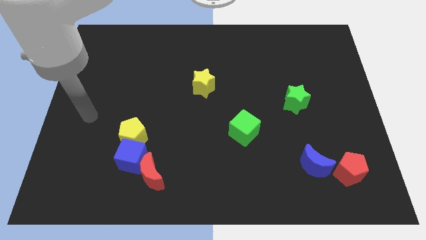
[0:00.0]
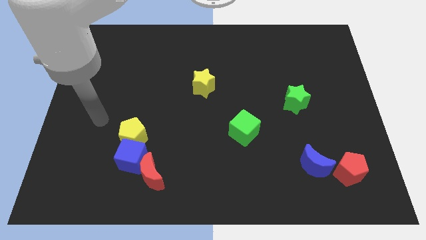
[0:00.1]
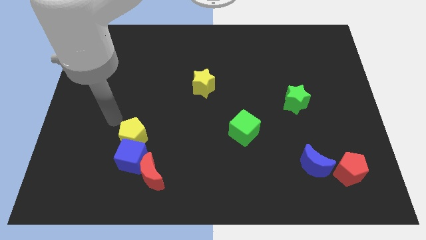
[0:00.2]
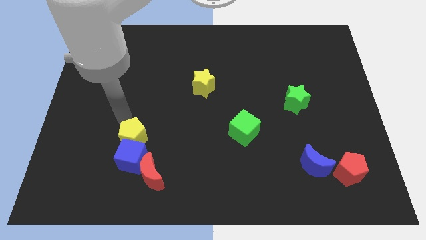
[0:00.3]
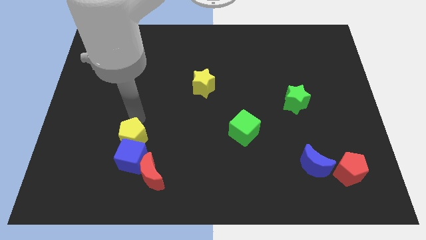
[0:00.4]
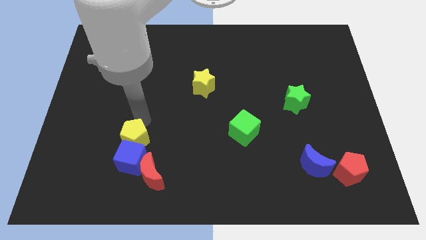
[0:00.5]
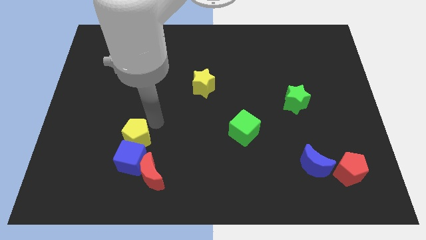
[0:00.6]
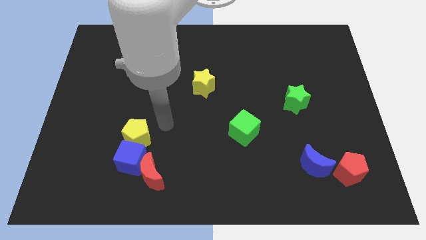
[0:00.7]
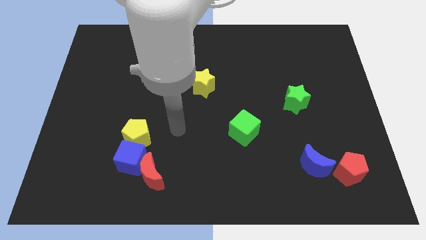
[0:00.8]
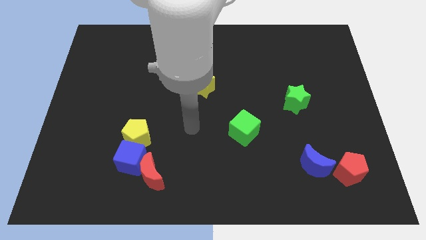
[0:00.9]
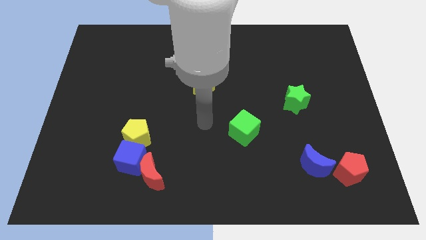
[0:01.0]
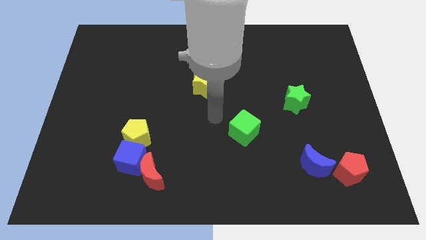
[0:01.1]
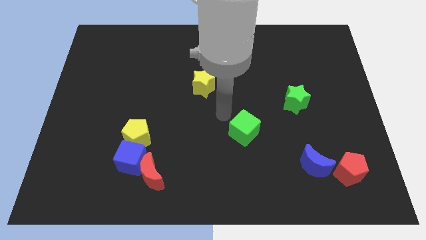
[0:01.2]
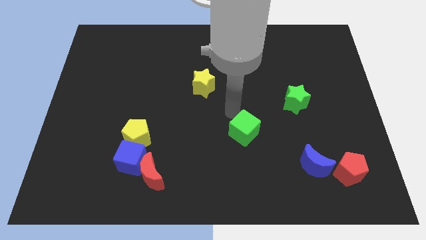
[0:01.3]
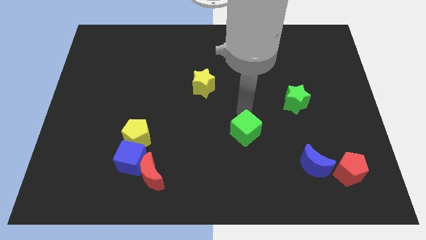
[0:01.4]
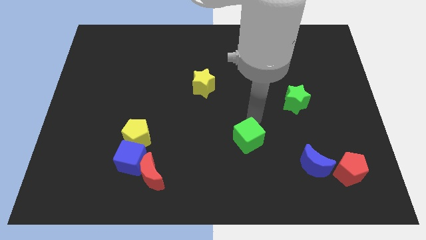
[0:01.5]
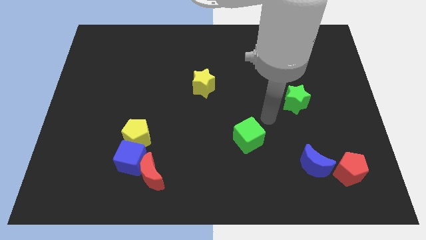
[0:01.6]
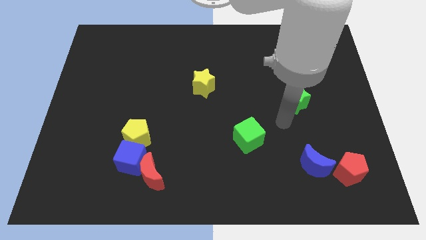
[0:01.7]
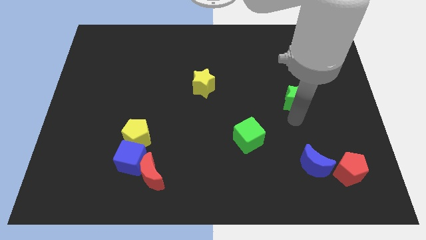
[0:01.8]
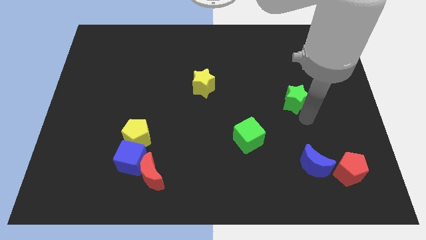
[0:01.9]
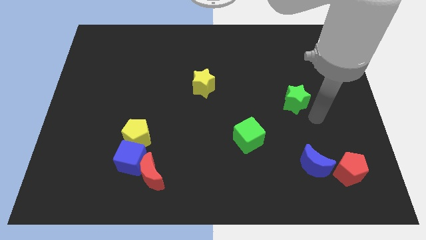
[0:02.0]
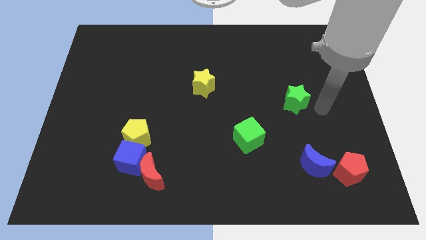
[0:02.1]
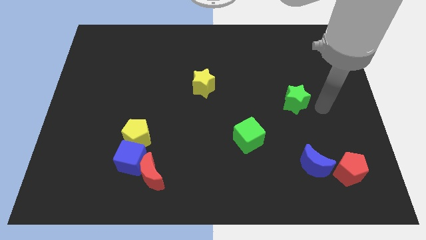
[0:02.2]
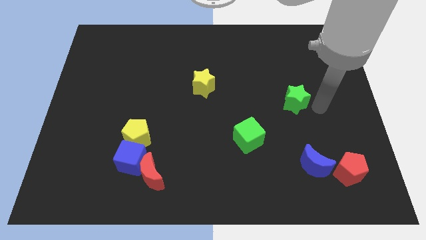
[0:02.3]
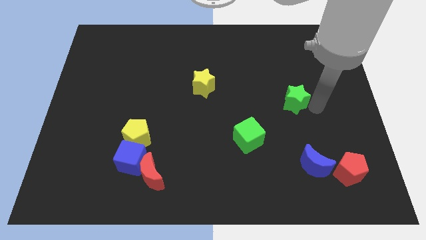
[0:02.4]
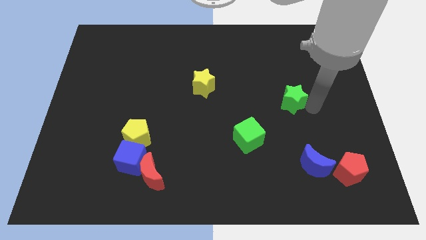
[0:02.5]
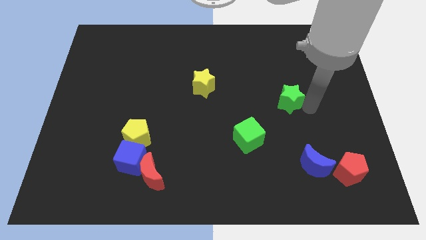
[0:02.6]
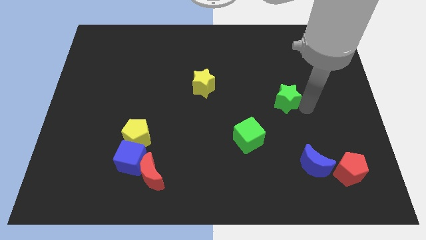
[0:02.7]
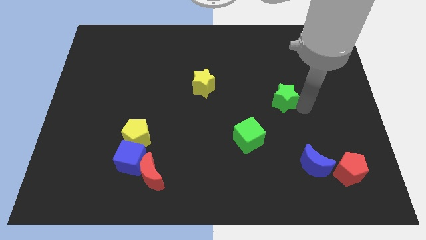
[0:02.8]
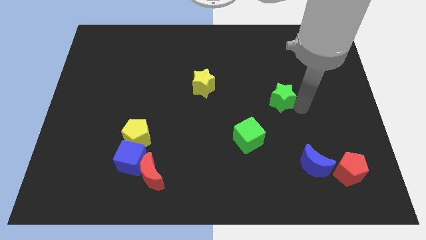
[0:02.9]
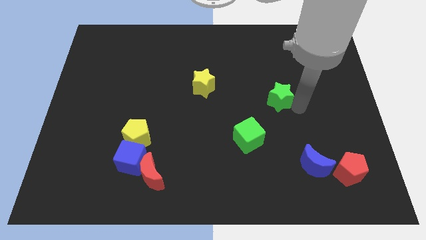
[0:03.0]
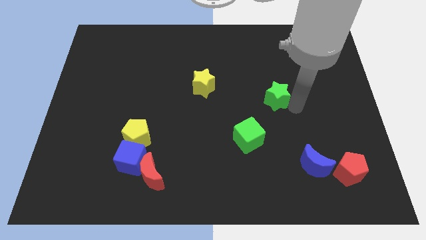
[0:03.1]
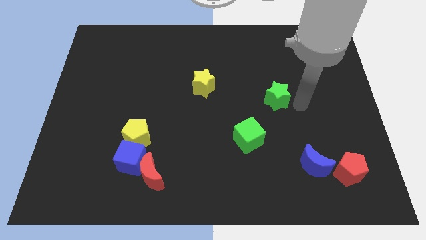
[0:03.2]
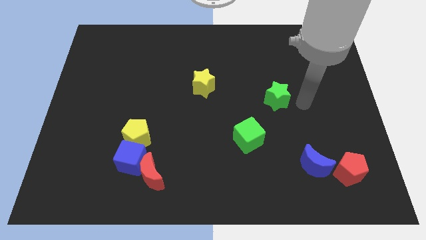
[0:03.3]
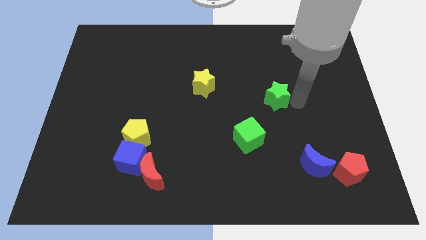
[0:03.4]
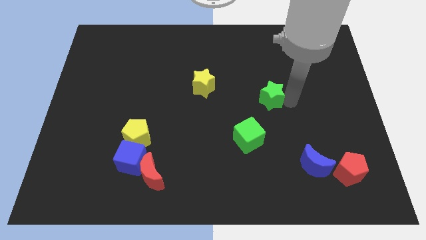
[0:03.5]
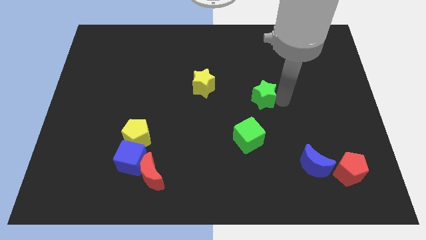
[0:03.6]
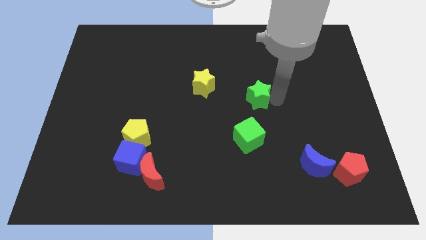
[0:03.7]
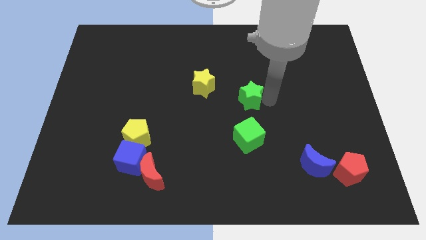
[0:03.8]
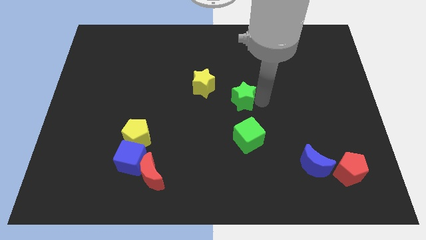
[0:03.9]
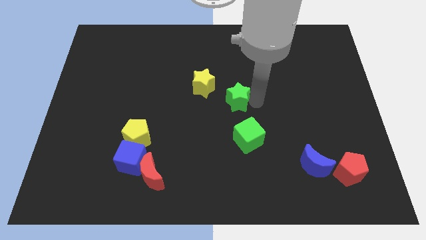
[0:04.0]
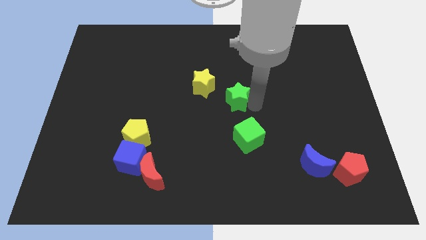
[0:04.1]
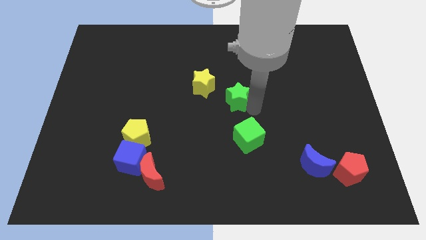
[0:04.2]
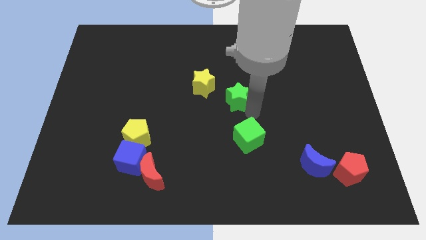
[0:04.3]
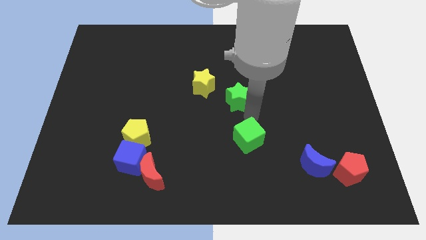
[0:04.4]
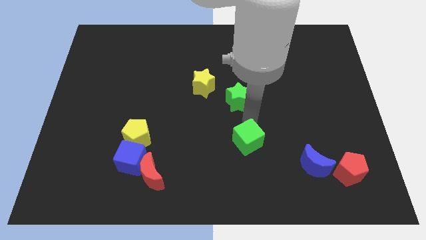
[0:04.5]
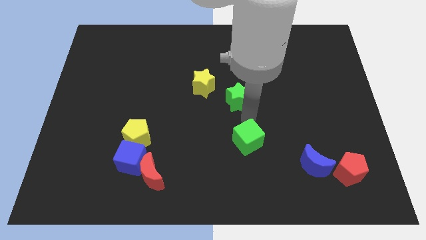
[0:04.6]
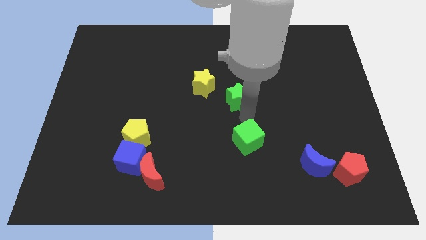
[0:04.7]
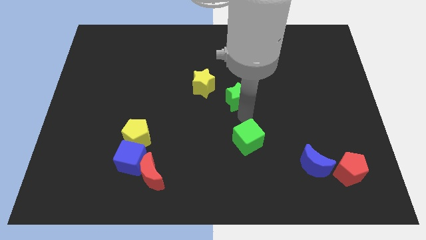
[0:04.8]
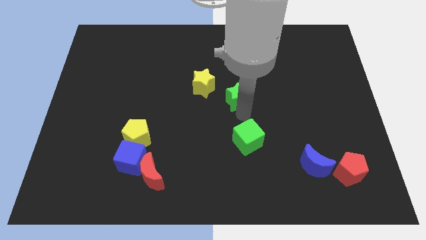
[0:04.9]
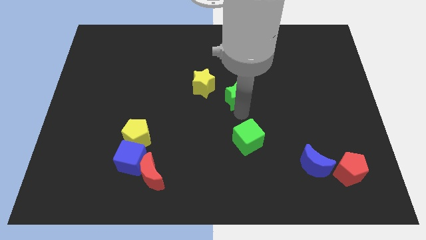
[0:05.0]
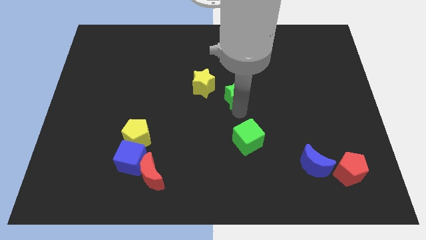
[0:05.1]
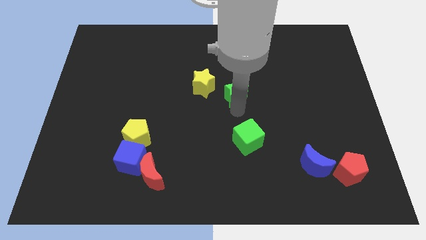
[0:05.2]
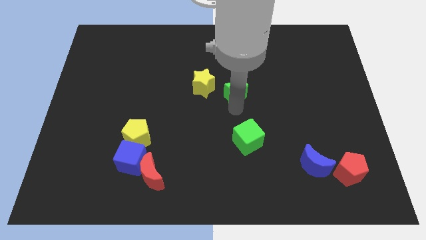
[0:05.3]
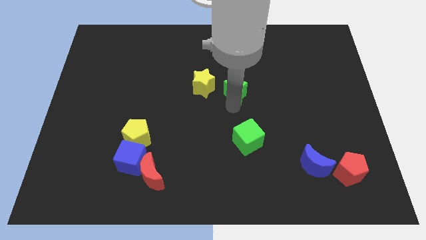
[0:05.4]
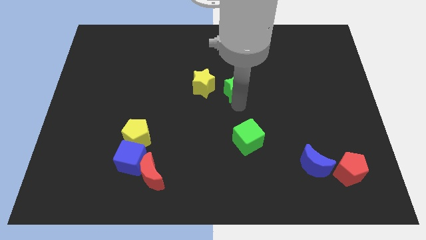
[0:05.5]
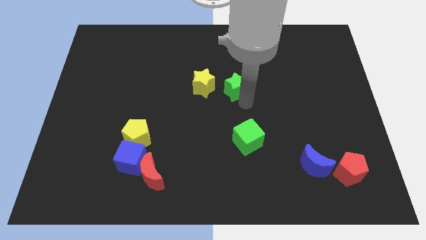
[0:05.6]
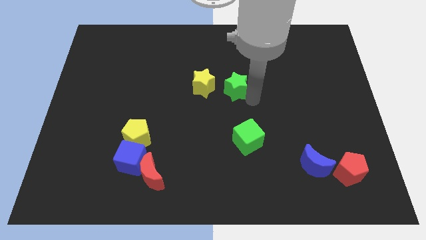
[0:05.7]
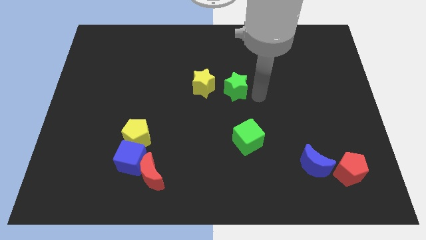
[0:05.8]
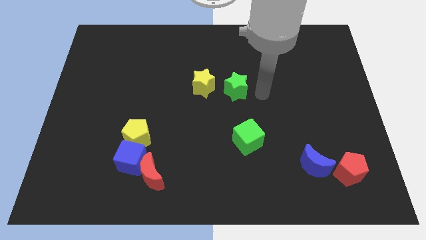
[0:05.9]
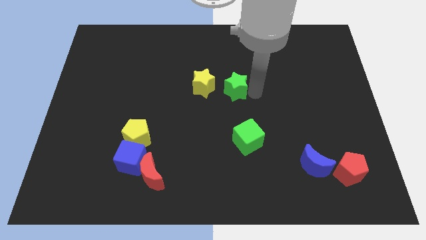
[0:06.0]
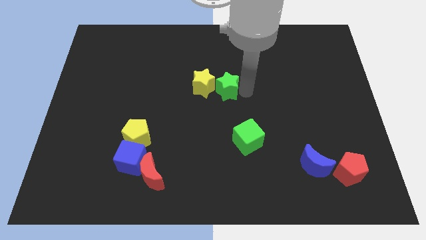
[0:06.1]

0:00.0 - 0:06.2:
move the green star towards the yellow star

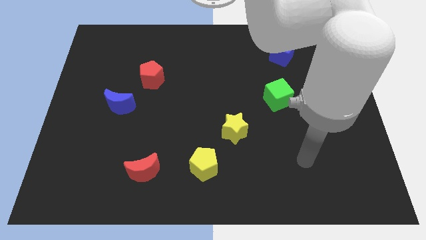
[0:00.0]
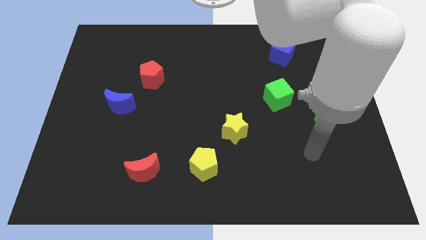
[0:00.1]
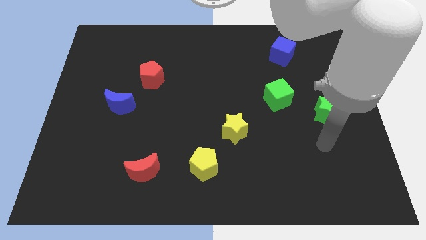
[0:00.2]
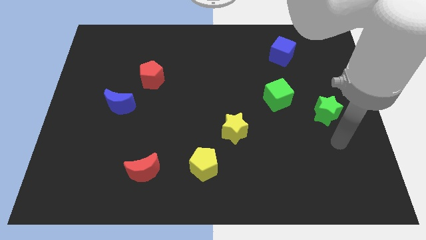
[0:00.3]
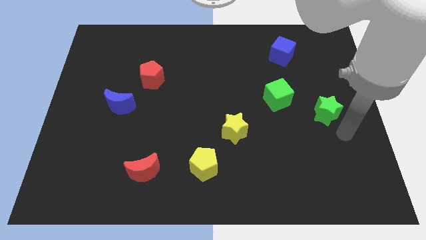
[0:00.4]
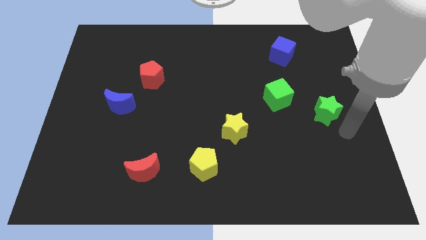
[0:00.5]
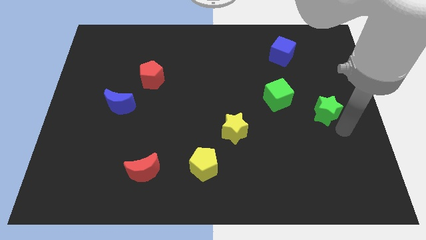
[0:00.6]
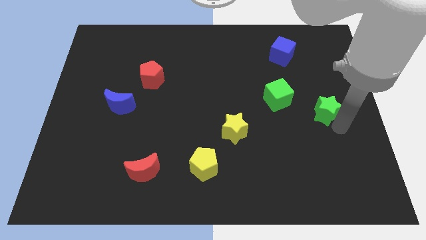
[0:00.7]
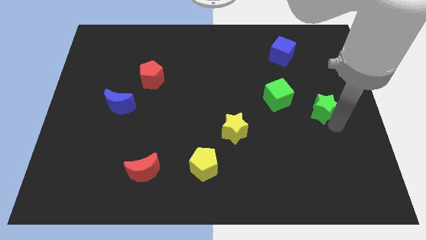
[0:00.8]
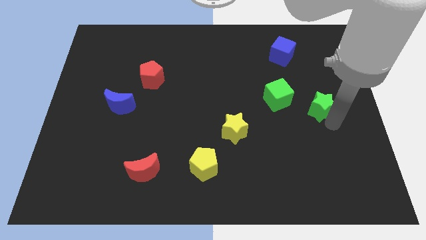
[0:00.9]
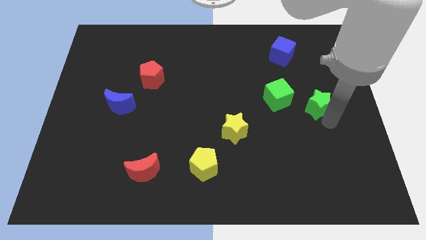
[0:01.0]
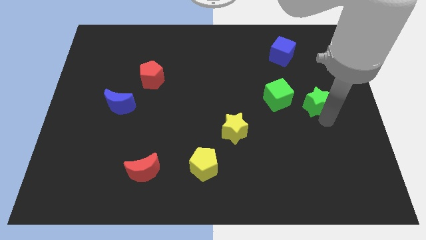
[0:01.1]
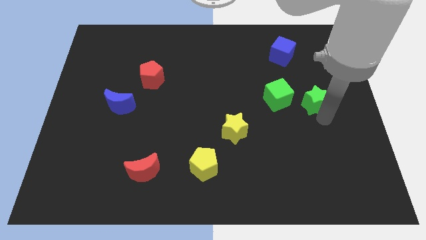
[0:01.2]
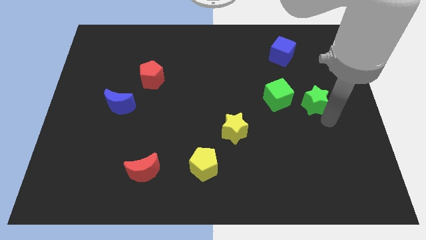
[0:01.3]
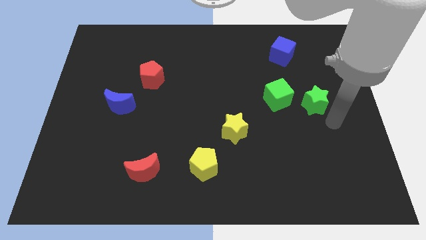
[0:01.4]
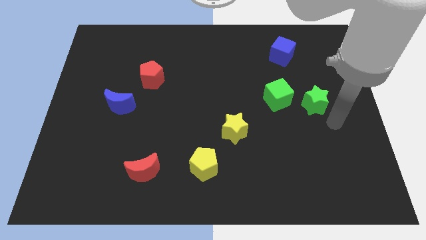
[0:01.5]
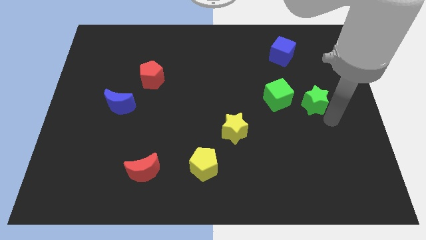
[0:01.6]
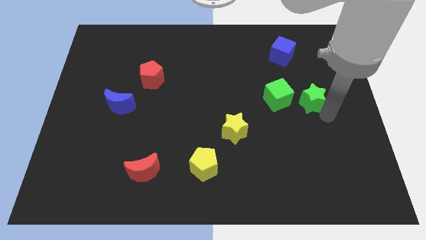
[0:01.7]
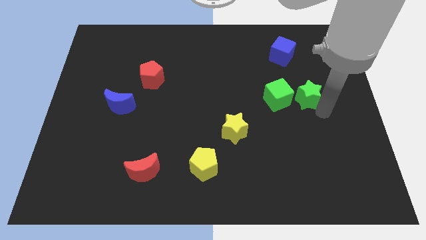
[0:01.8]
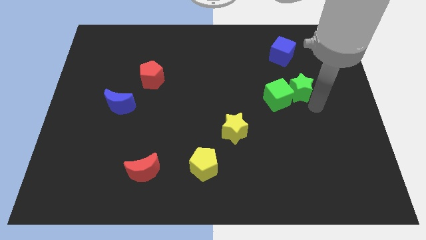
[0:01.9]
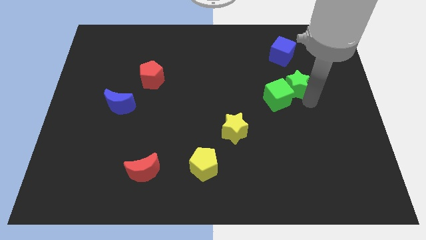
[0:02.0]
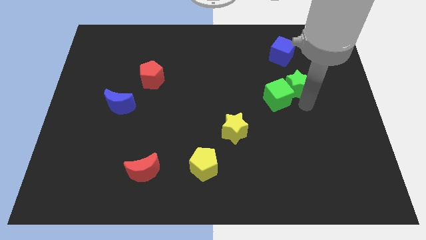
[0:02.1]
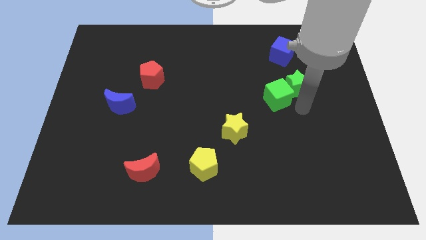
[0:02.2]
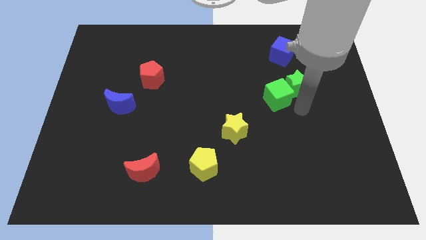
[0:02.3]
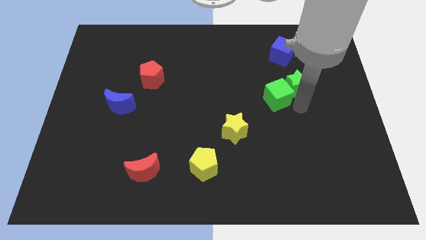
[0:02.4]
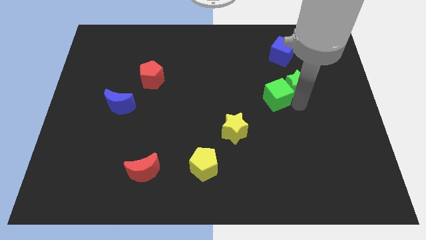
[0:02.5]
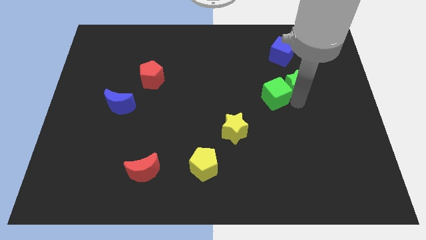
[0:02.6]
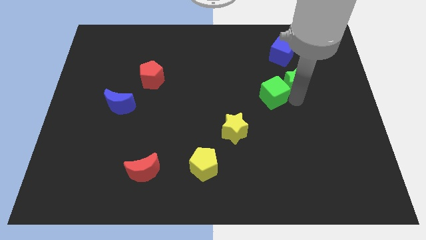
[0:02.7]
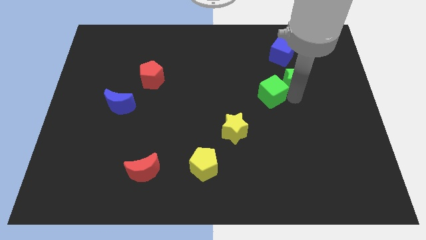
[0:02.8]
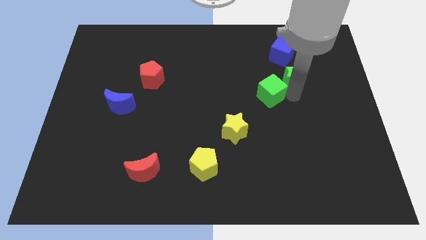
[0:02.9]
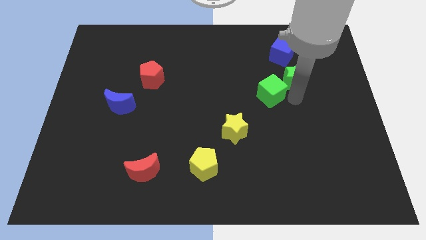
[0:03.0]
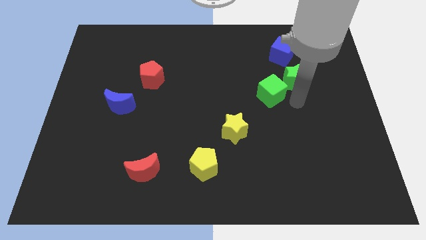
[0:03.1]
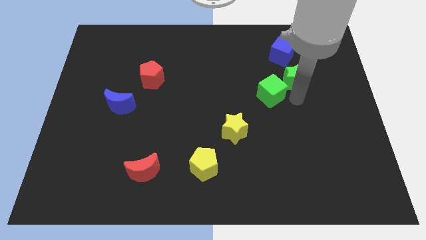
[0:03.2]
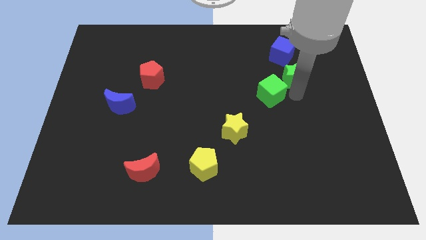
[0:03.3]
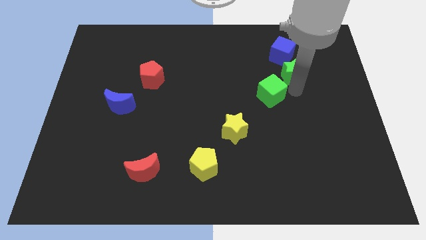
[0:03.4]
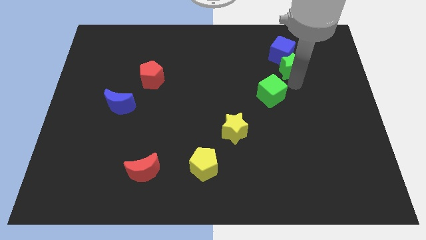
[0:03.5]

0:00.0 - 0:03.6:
push the green star towards the blue cube
